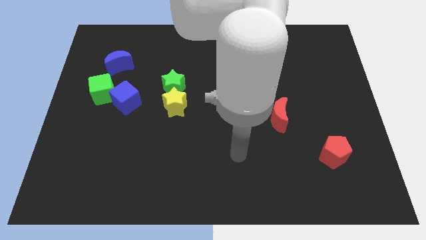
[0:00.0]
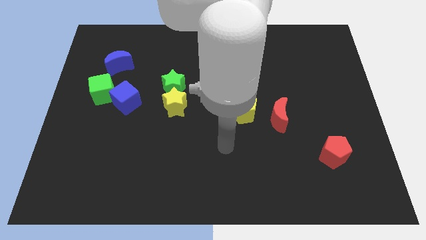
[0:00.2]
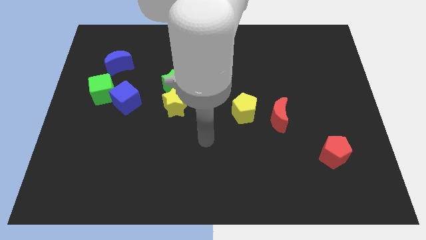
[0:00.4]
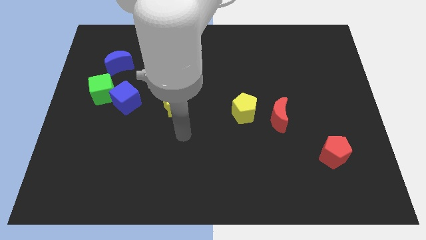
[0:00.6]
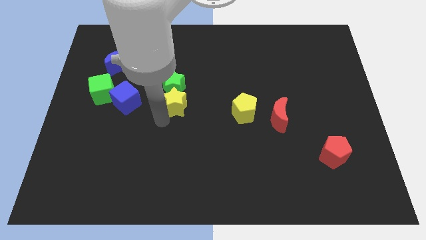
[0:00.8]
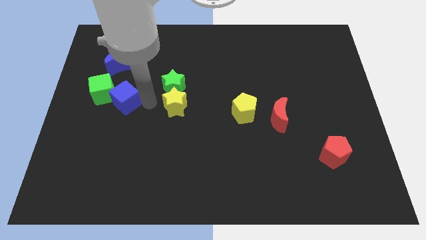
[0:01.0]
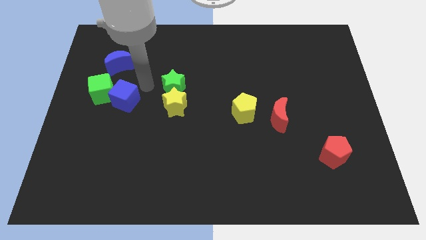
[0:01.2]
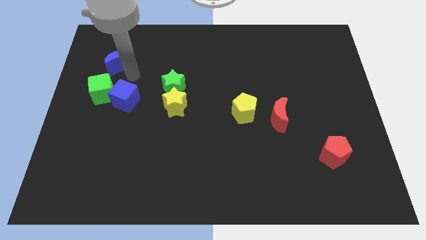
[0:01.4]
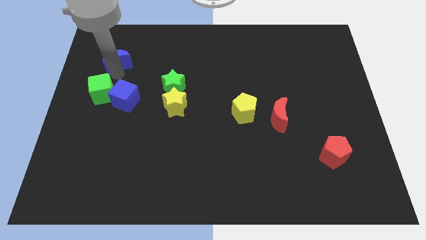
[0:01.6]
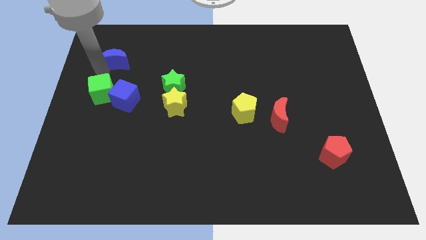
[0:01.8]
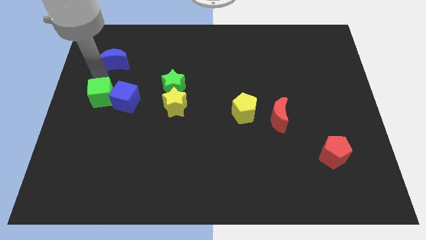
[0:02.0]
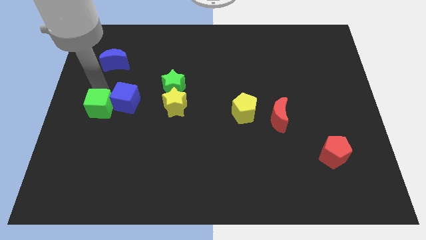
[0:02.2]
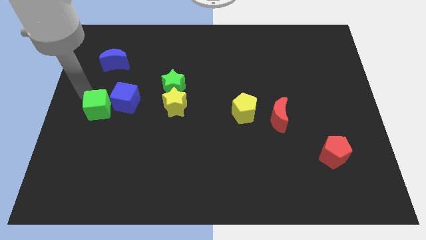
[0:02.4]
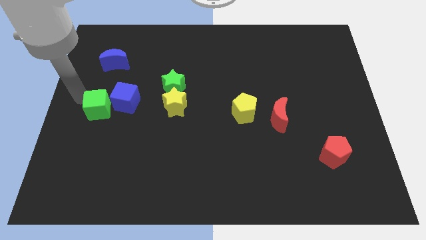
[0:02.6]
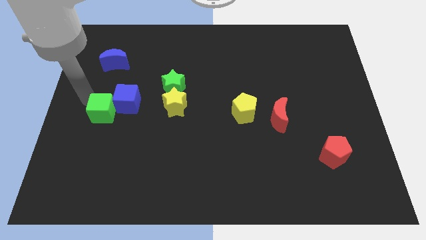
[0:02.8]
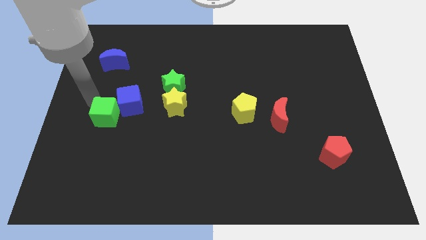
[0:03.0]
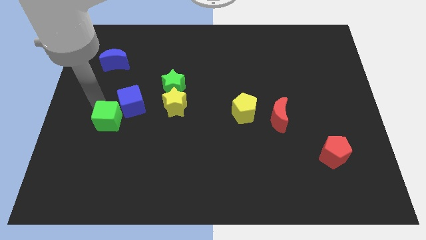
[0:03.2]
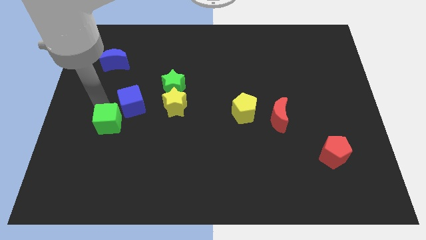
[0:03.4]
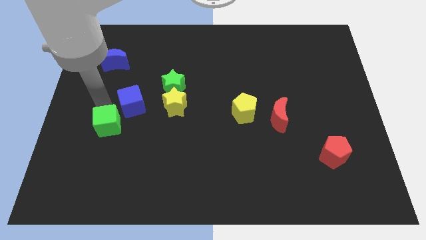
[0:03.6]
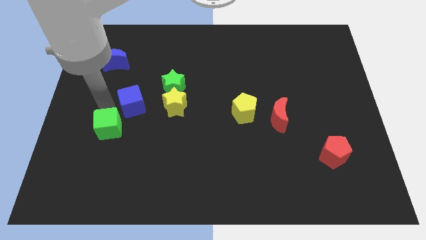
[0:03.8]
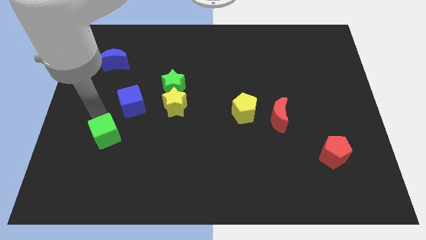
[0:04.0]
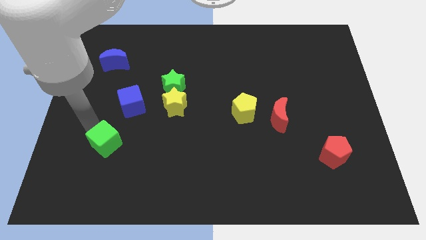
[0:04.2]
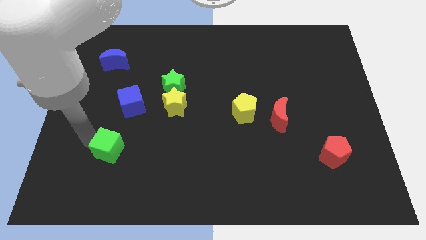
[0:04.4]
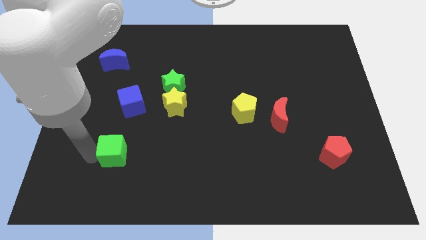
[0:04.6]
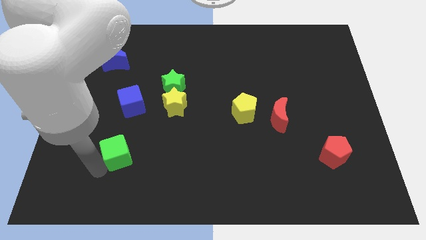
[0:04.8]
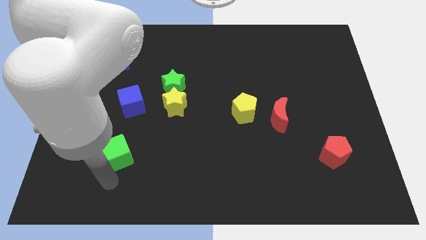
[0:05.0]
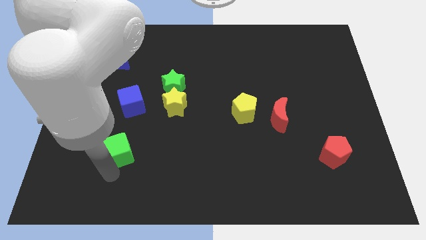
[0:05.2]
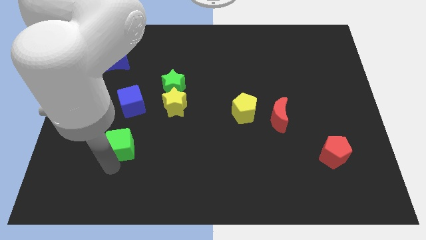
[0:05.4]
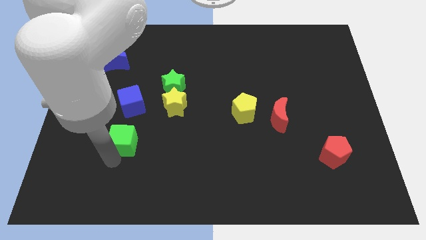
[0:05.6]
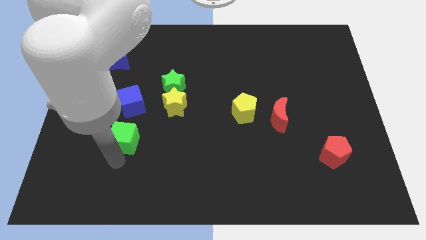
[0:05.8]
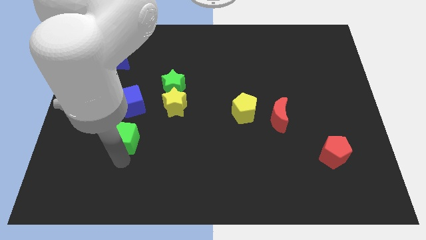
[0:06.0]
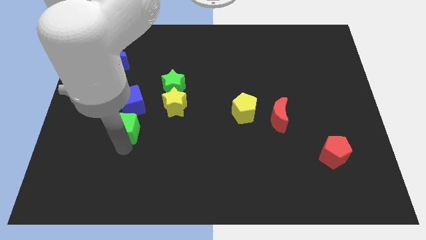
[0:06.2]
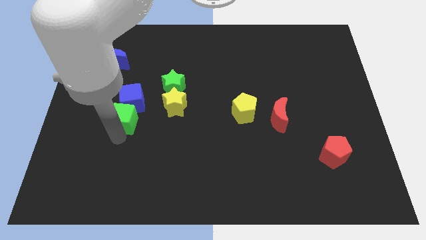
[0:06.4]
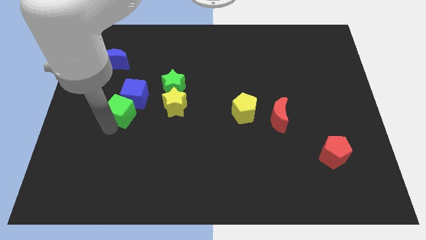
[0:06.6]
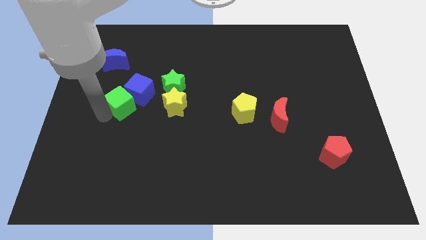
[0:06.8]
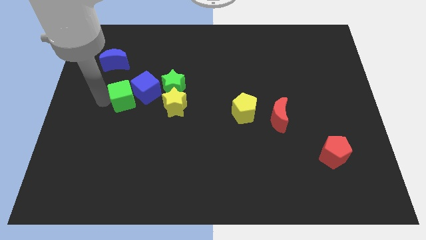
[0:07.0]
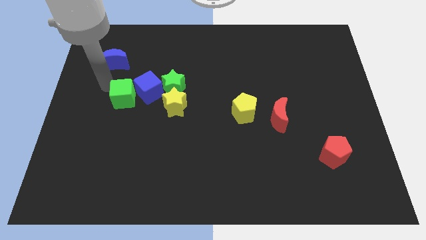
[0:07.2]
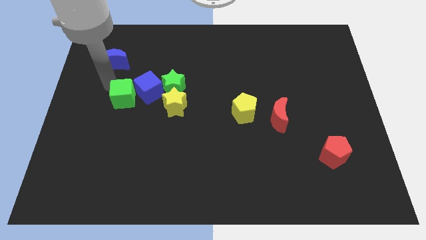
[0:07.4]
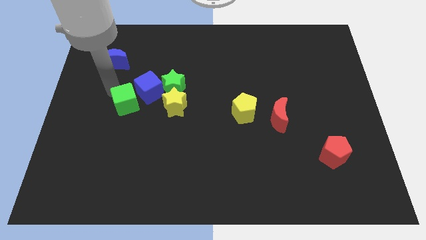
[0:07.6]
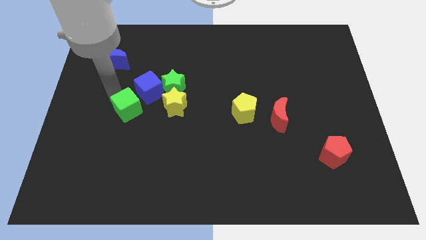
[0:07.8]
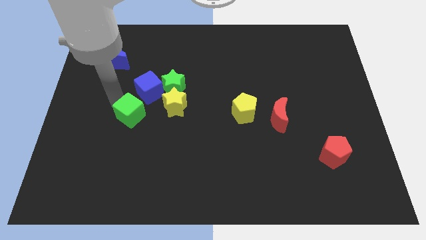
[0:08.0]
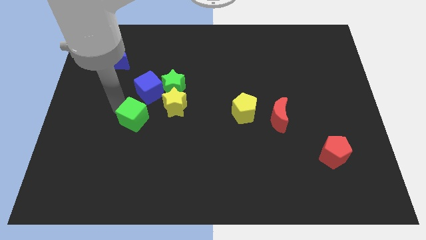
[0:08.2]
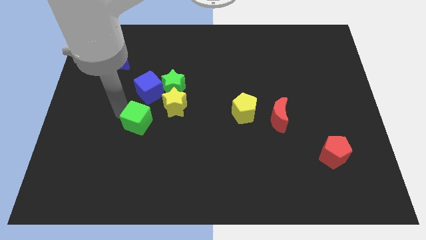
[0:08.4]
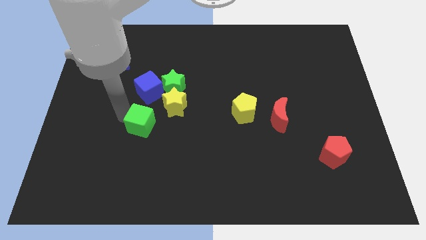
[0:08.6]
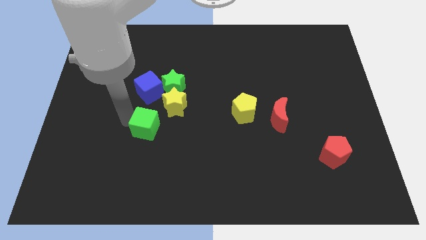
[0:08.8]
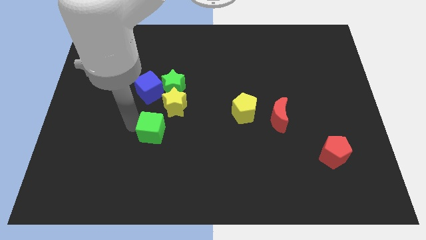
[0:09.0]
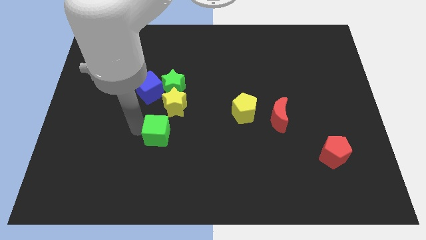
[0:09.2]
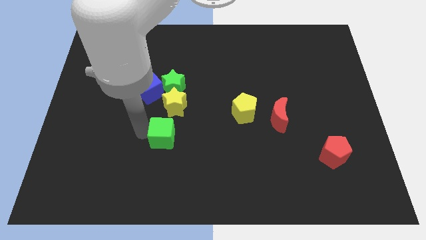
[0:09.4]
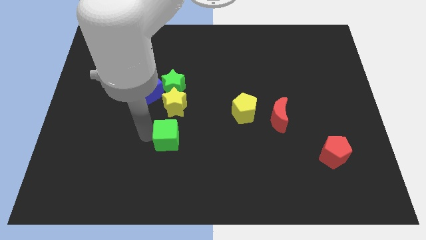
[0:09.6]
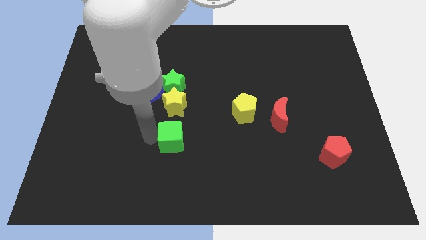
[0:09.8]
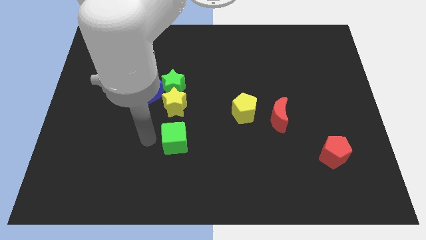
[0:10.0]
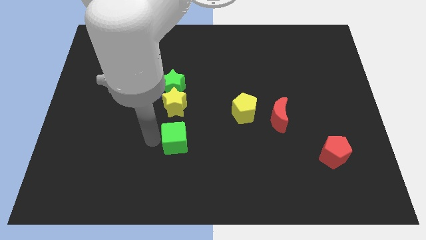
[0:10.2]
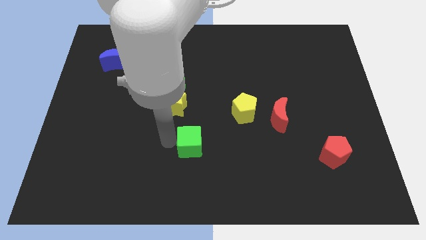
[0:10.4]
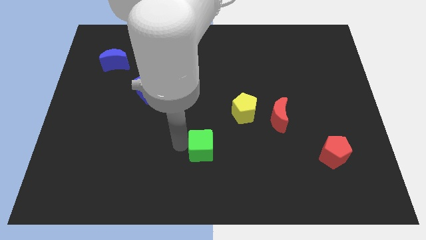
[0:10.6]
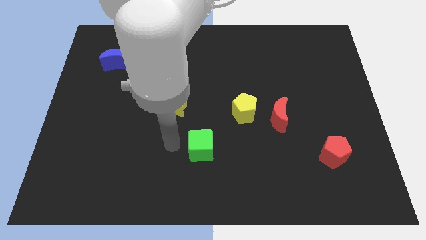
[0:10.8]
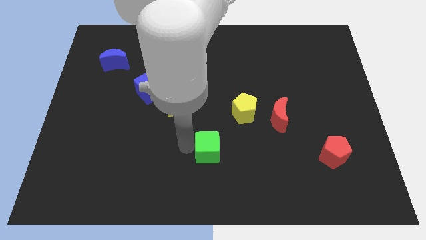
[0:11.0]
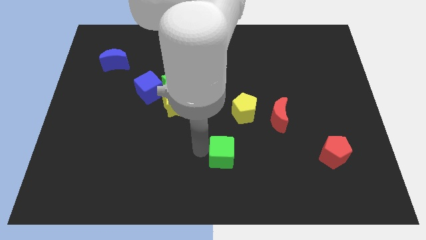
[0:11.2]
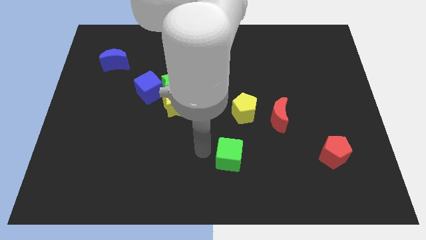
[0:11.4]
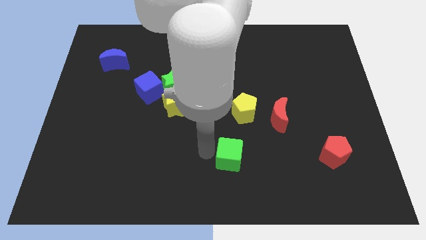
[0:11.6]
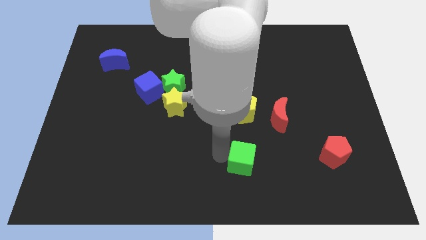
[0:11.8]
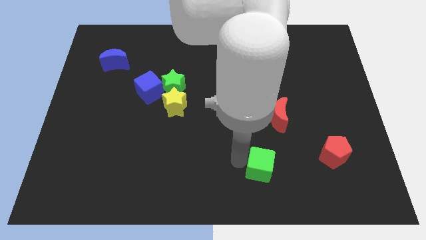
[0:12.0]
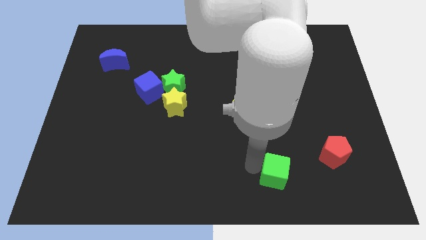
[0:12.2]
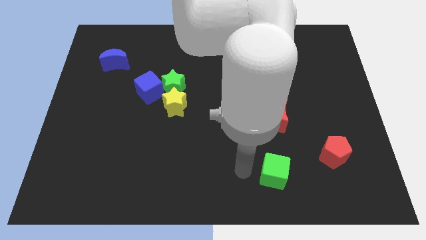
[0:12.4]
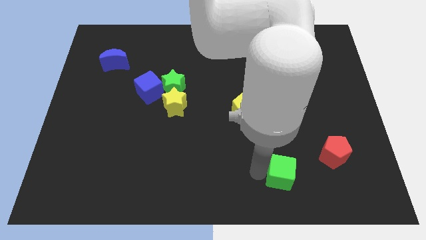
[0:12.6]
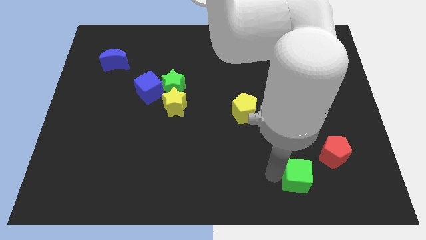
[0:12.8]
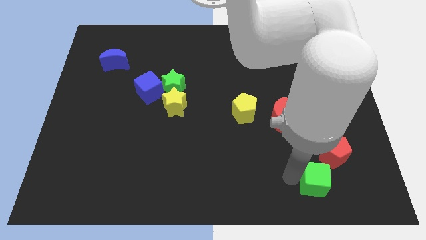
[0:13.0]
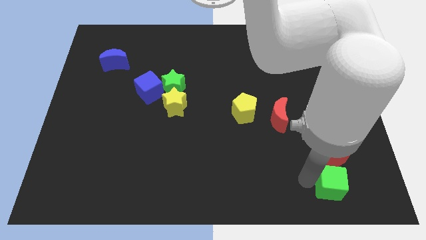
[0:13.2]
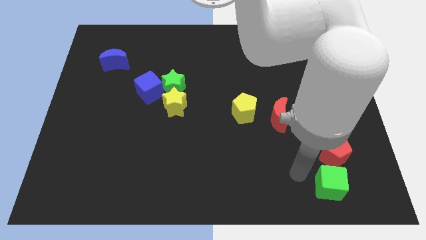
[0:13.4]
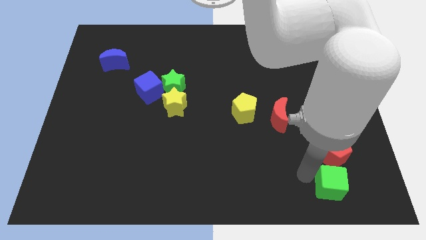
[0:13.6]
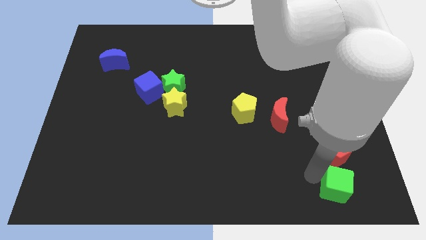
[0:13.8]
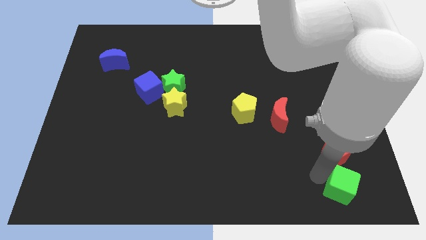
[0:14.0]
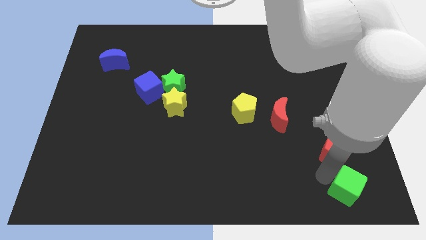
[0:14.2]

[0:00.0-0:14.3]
push the green cube to the bottom right of the board
